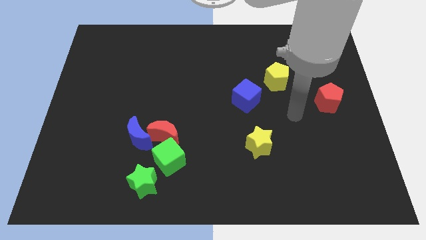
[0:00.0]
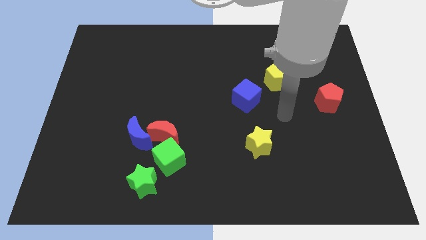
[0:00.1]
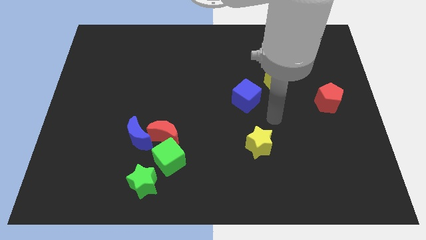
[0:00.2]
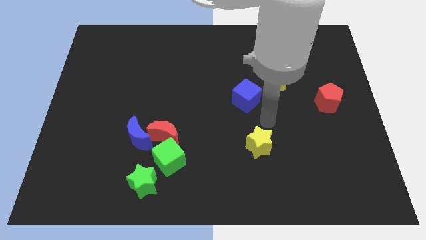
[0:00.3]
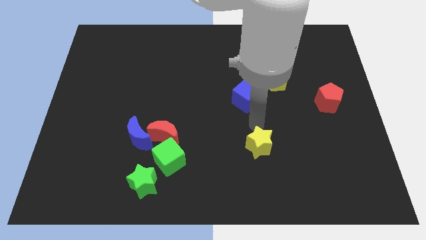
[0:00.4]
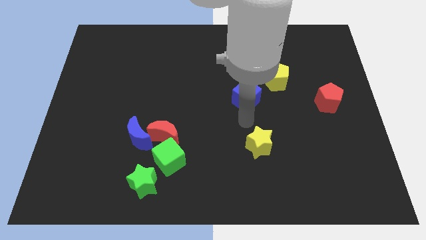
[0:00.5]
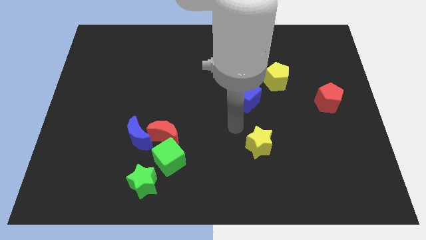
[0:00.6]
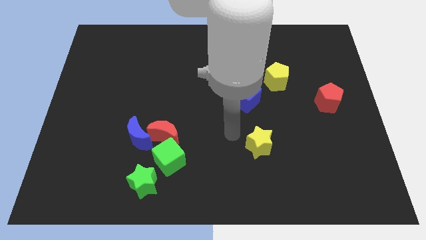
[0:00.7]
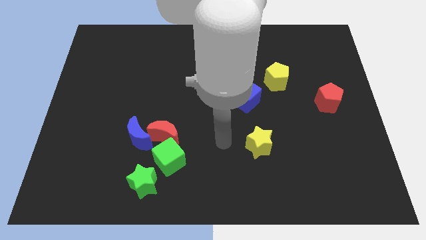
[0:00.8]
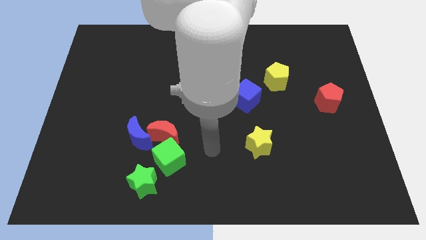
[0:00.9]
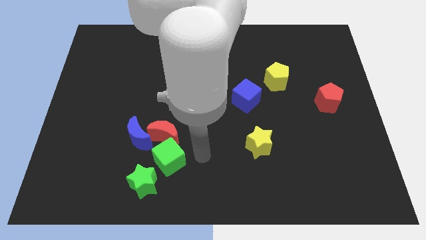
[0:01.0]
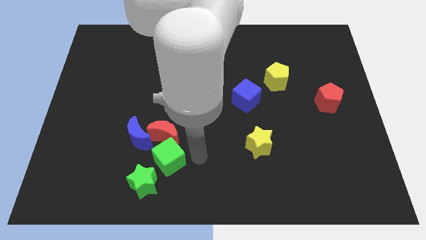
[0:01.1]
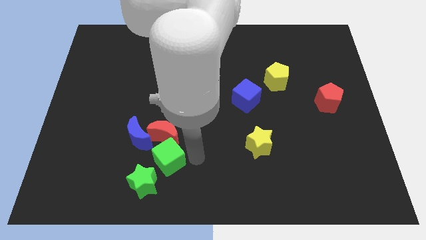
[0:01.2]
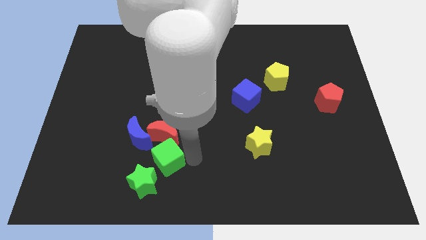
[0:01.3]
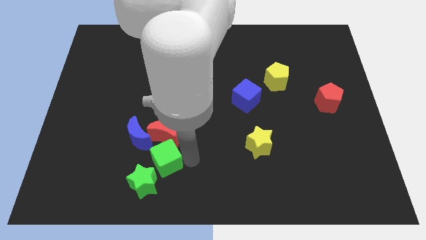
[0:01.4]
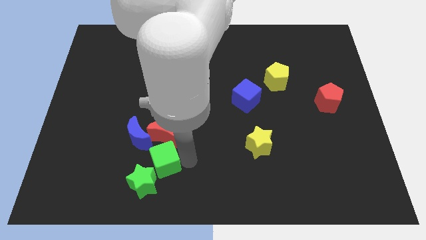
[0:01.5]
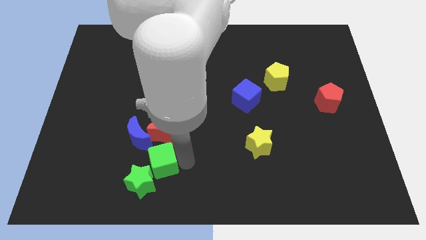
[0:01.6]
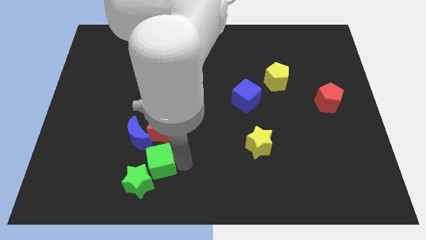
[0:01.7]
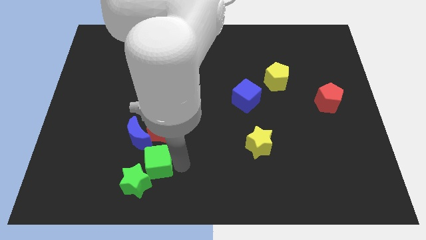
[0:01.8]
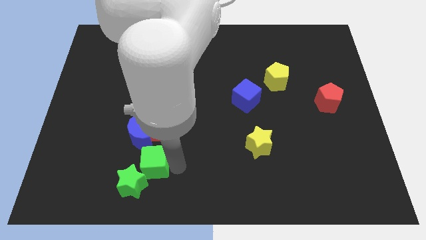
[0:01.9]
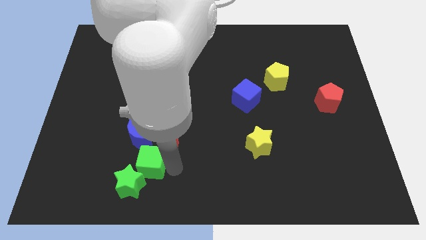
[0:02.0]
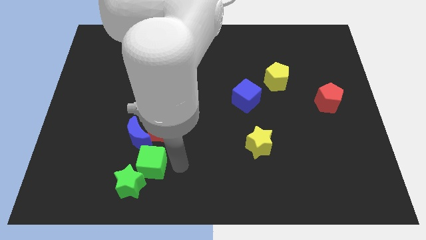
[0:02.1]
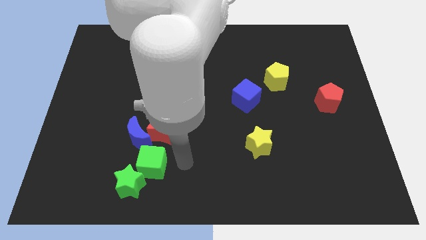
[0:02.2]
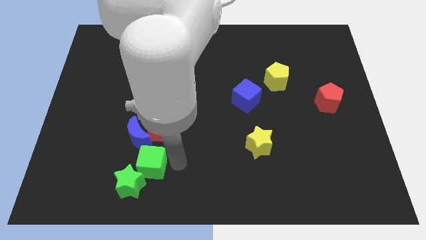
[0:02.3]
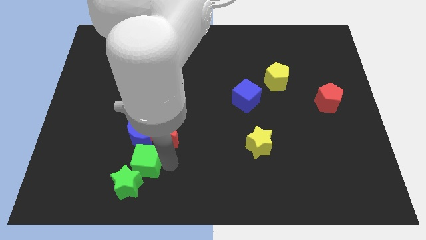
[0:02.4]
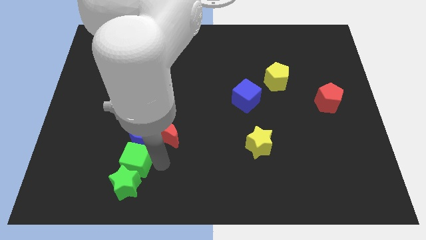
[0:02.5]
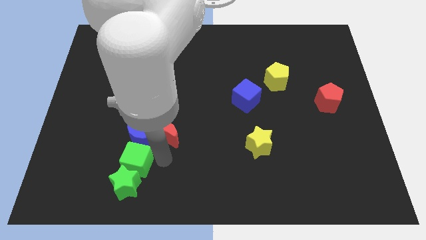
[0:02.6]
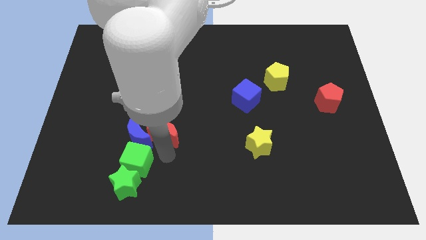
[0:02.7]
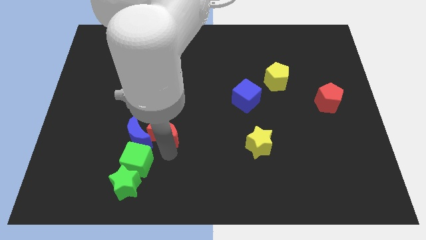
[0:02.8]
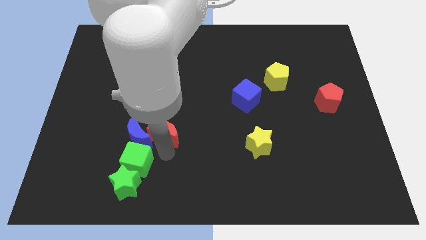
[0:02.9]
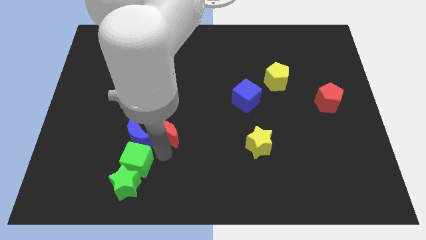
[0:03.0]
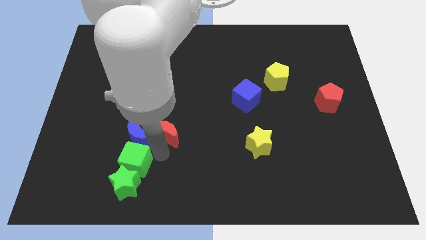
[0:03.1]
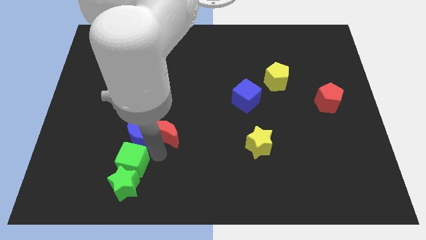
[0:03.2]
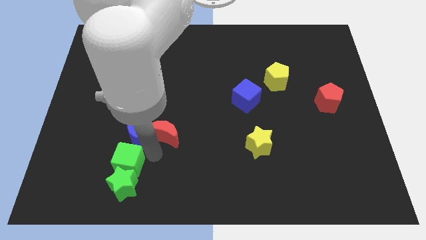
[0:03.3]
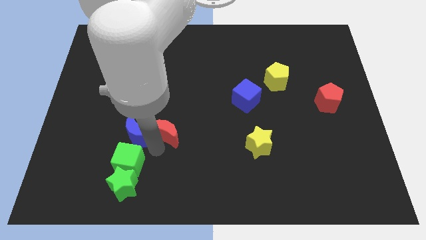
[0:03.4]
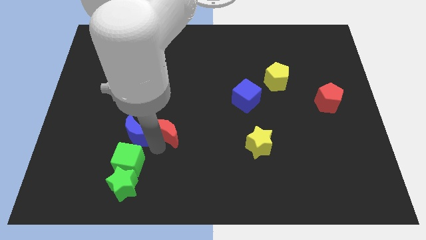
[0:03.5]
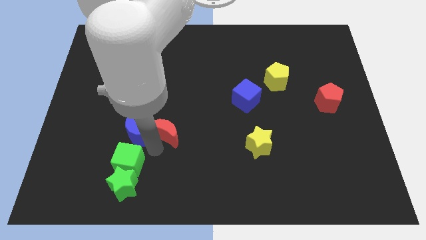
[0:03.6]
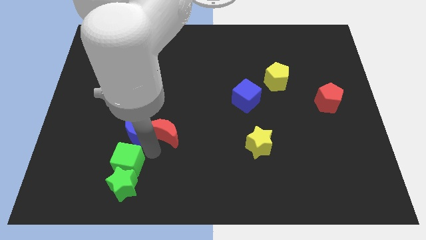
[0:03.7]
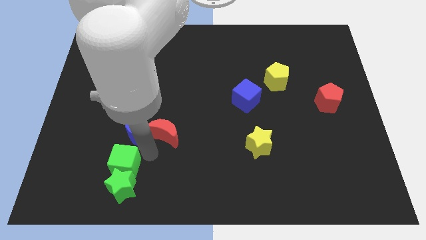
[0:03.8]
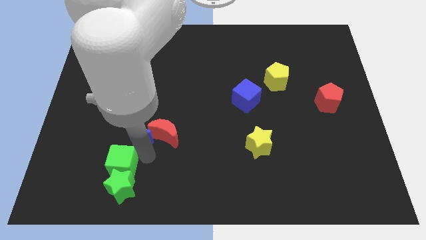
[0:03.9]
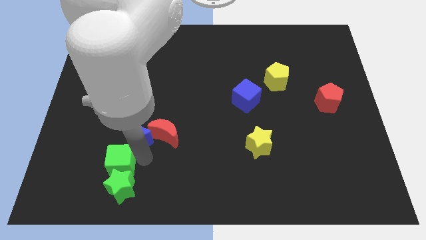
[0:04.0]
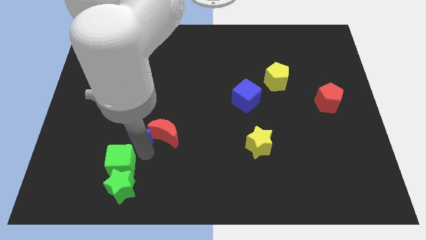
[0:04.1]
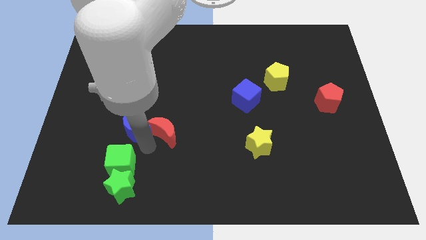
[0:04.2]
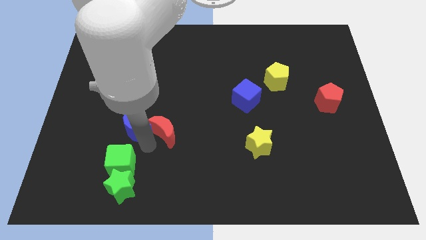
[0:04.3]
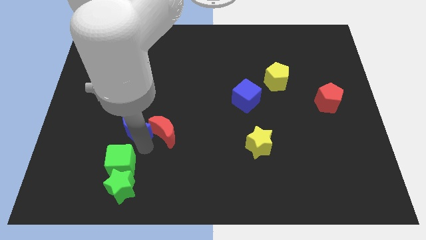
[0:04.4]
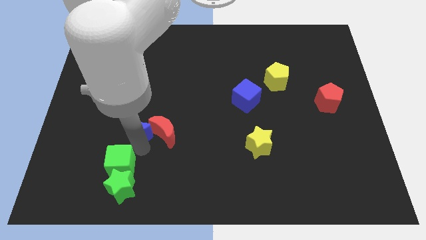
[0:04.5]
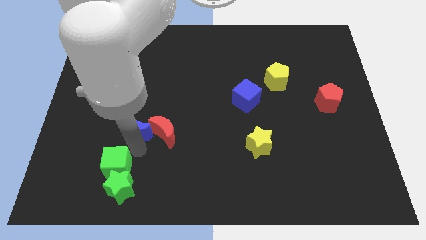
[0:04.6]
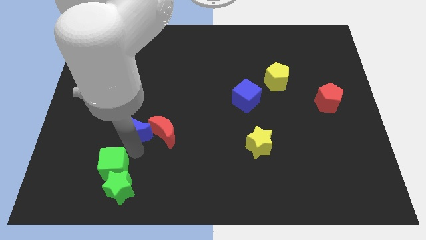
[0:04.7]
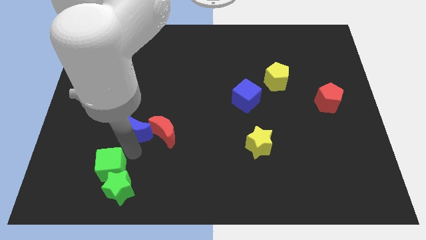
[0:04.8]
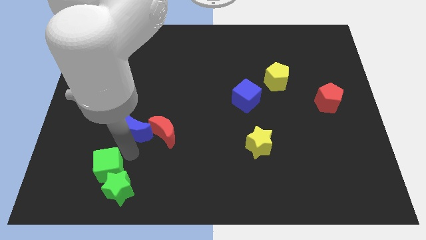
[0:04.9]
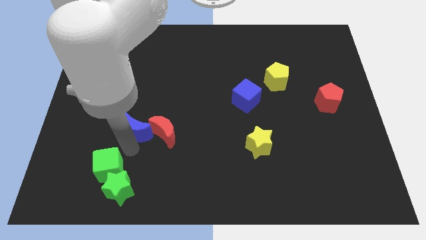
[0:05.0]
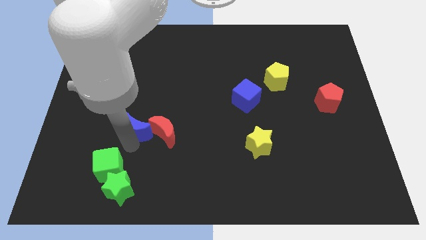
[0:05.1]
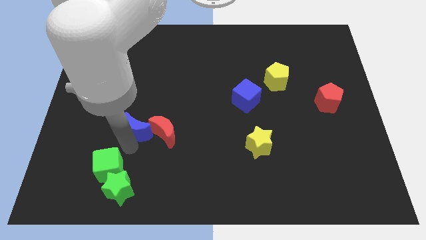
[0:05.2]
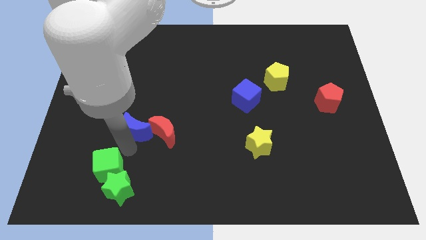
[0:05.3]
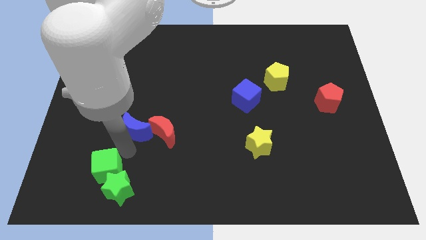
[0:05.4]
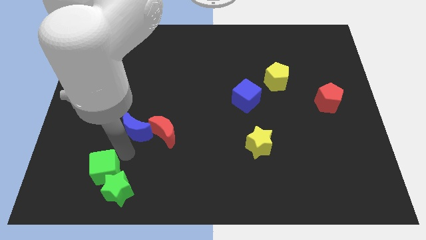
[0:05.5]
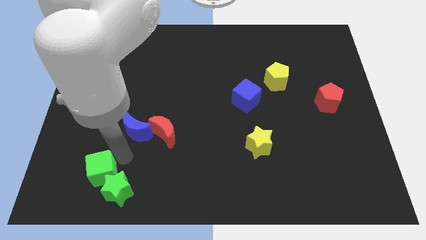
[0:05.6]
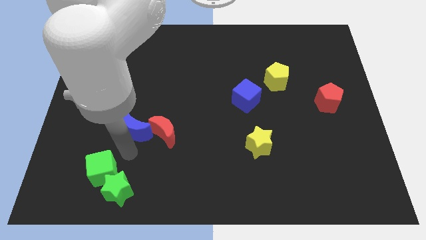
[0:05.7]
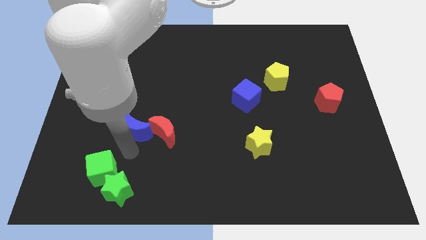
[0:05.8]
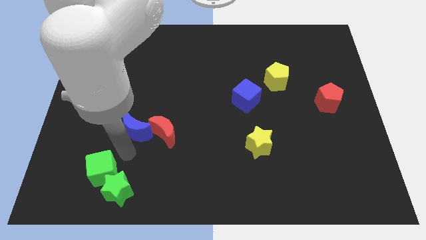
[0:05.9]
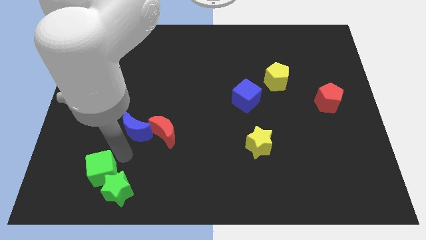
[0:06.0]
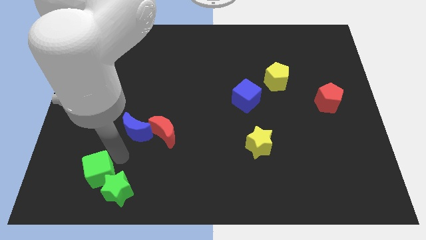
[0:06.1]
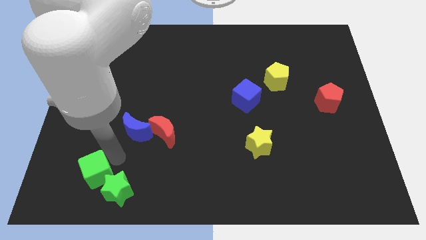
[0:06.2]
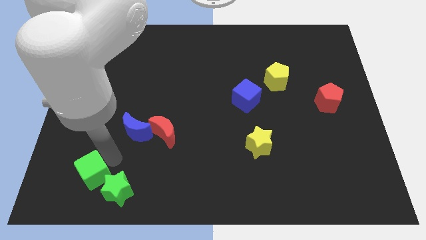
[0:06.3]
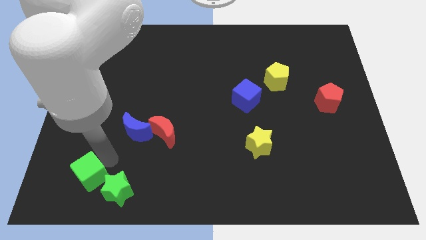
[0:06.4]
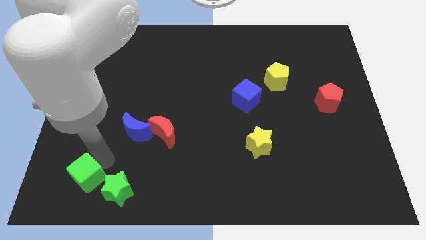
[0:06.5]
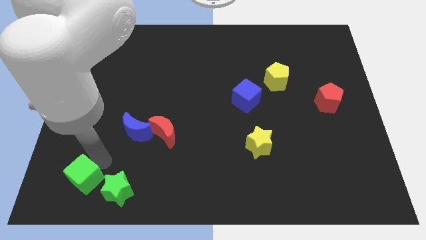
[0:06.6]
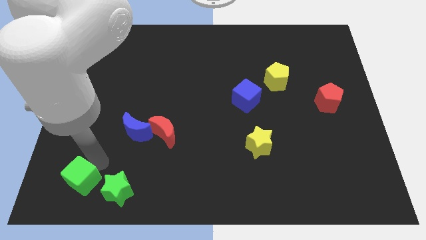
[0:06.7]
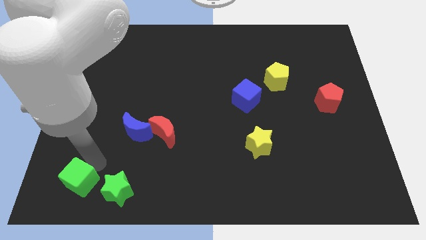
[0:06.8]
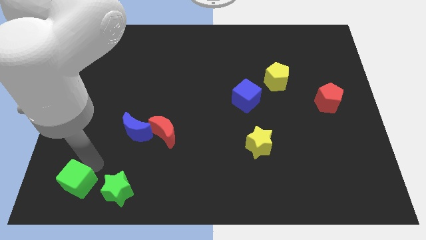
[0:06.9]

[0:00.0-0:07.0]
put the green cube to the bottom left of the board
